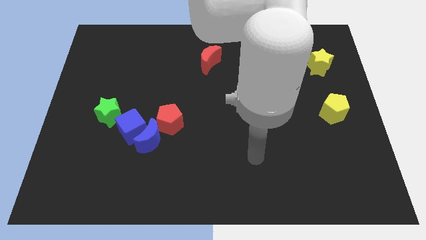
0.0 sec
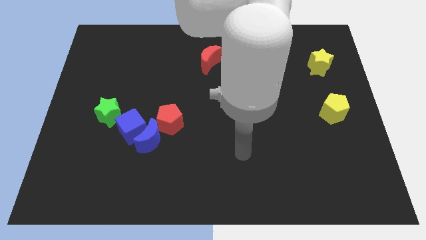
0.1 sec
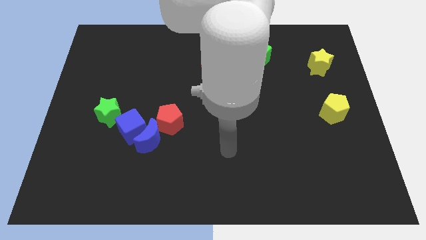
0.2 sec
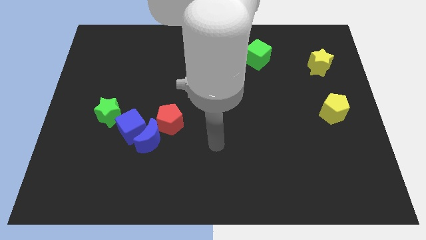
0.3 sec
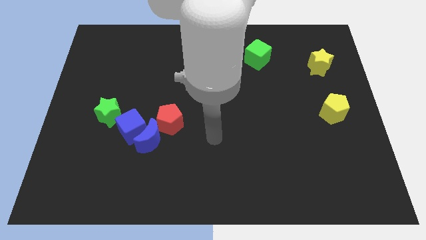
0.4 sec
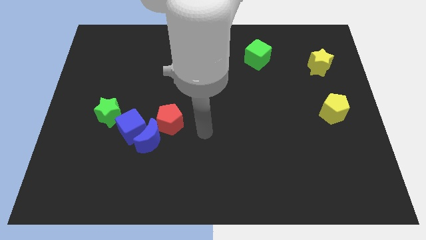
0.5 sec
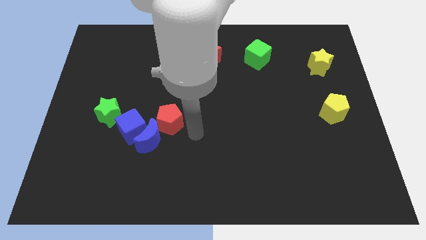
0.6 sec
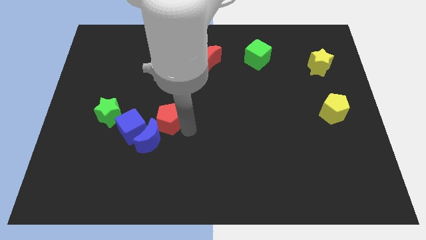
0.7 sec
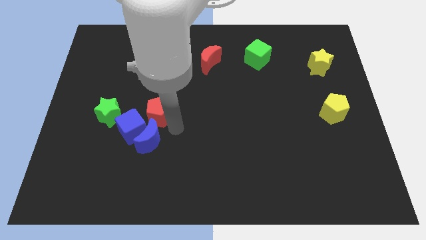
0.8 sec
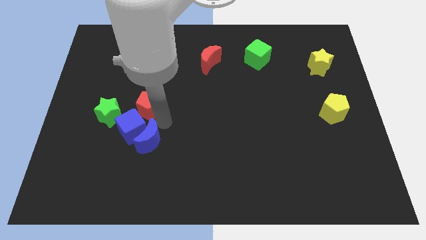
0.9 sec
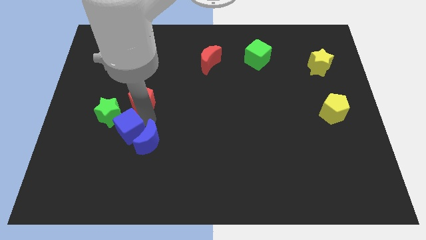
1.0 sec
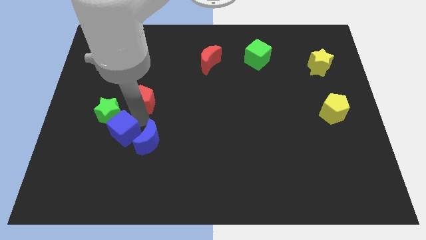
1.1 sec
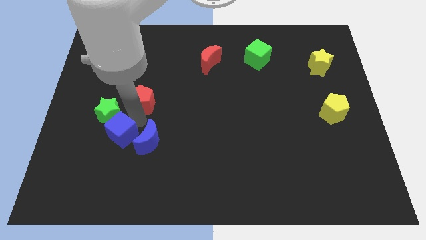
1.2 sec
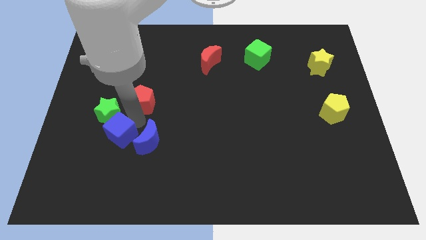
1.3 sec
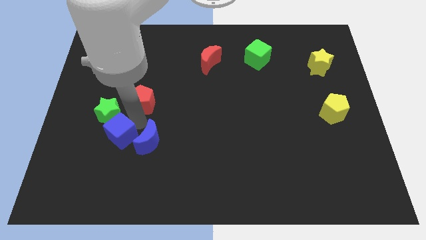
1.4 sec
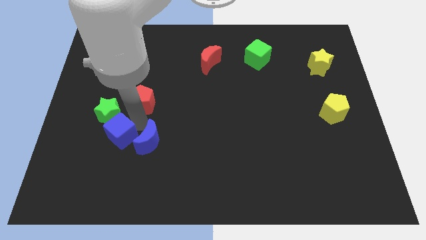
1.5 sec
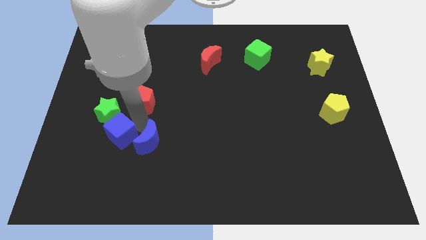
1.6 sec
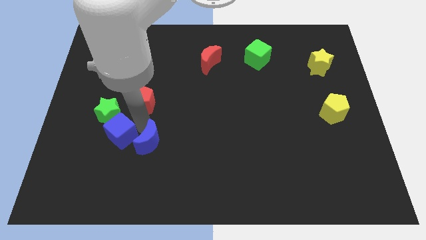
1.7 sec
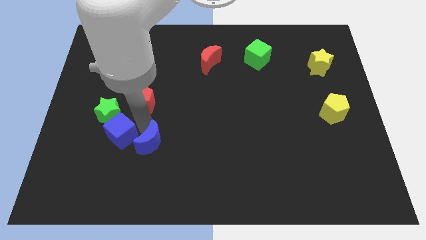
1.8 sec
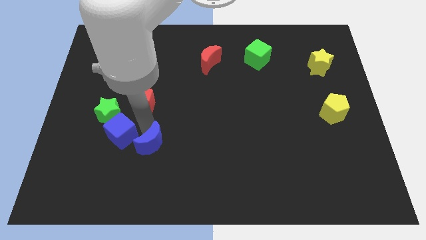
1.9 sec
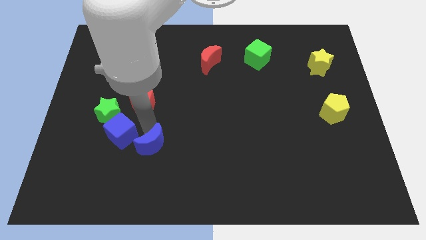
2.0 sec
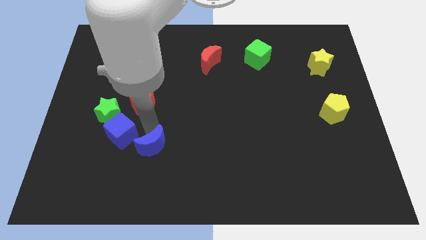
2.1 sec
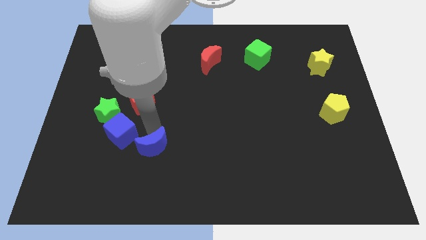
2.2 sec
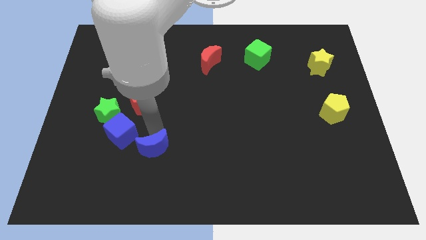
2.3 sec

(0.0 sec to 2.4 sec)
pull the blue moon apart from the blue cube and red pentagon

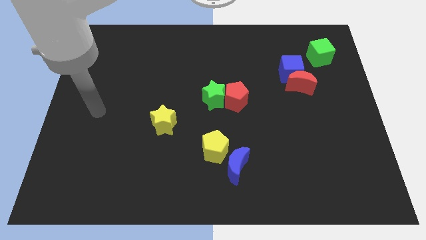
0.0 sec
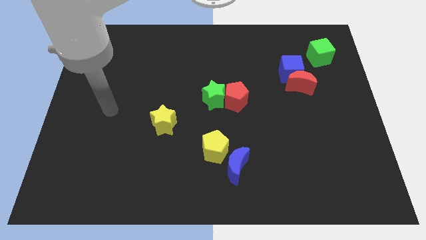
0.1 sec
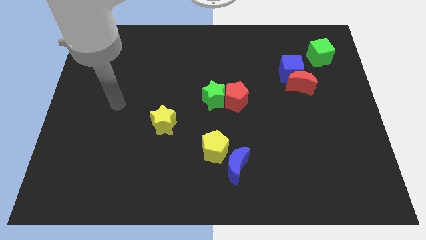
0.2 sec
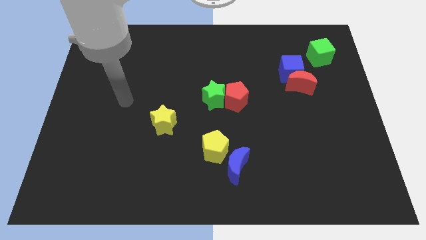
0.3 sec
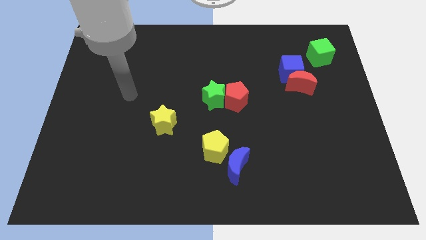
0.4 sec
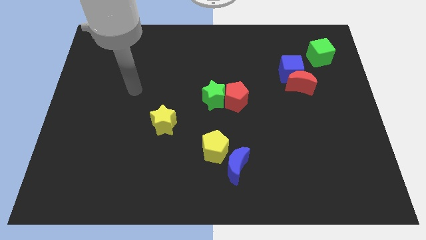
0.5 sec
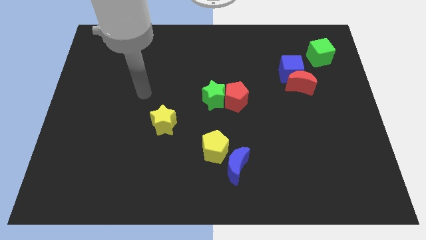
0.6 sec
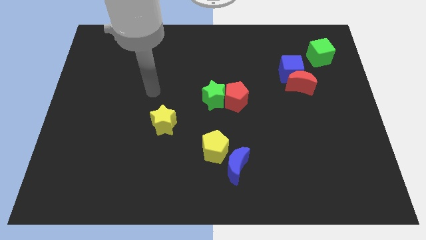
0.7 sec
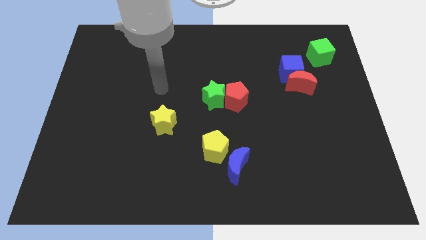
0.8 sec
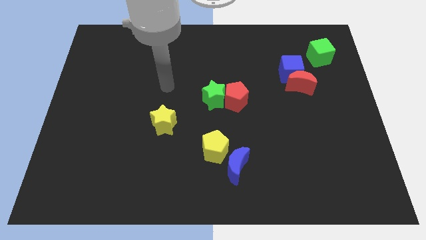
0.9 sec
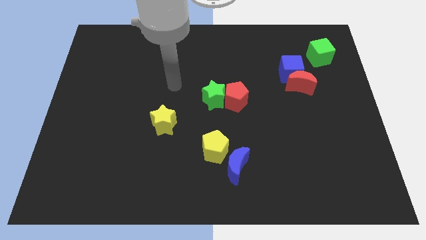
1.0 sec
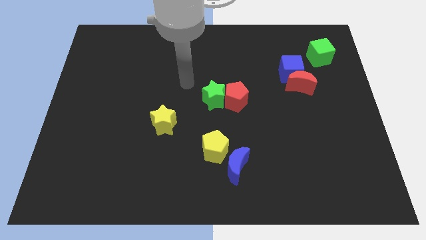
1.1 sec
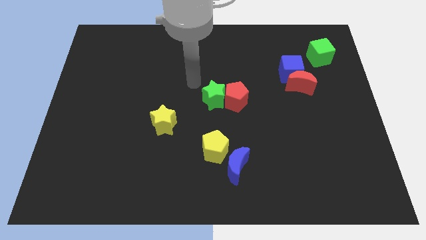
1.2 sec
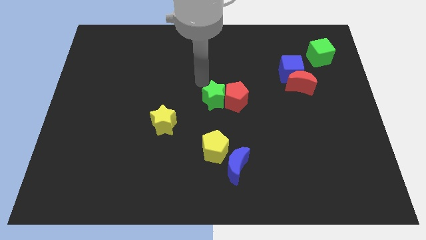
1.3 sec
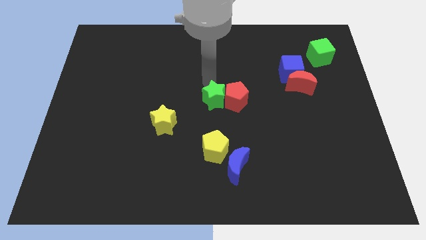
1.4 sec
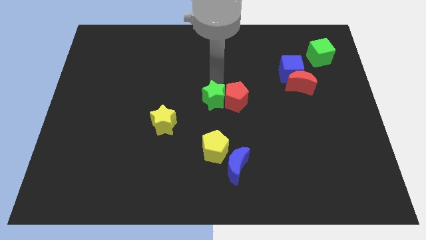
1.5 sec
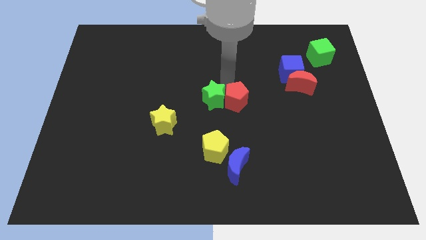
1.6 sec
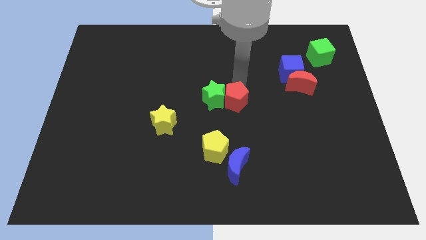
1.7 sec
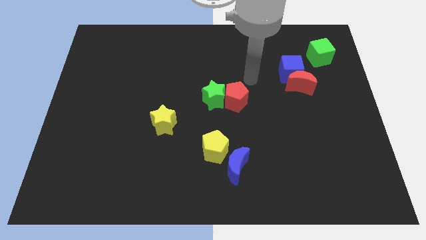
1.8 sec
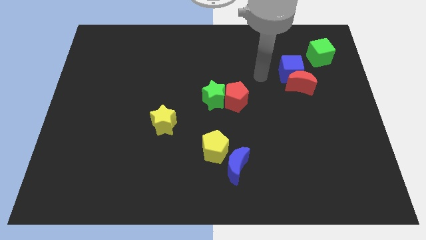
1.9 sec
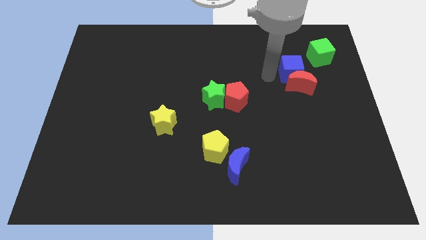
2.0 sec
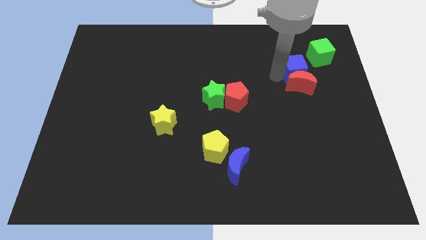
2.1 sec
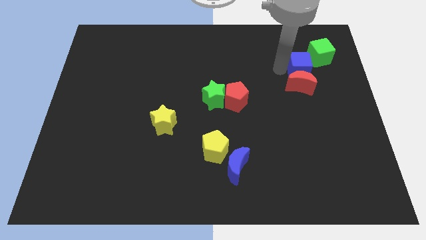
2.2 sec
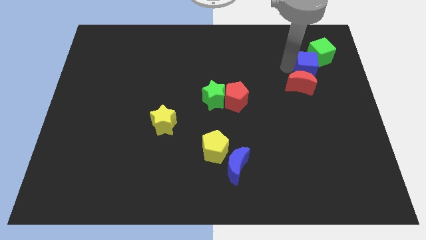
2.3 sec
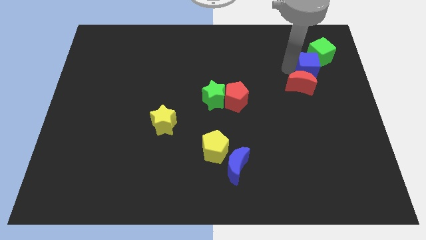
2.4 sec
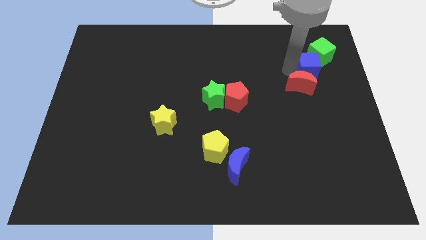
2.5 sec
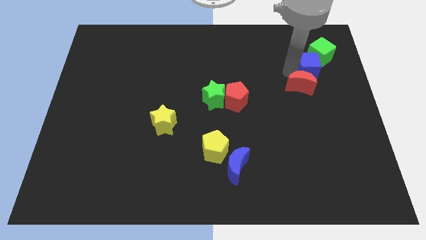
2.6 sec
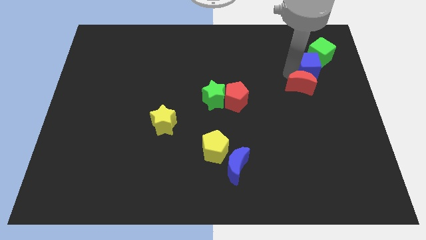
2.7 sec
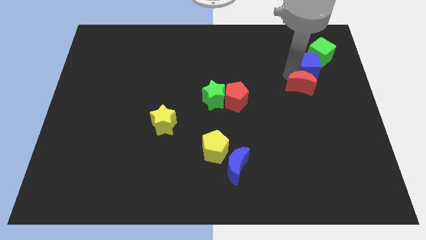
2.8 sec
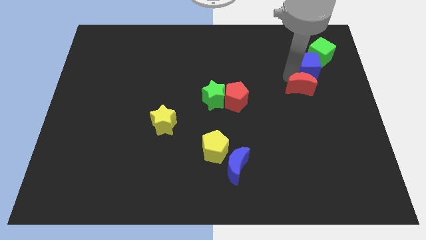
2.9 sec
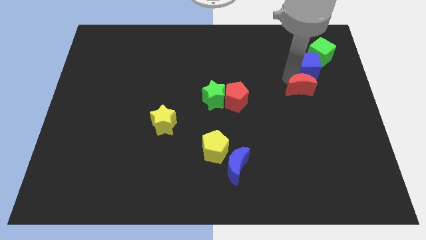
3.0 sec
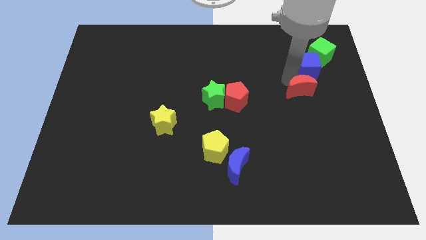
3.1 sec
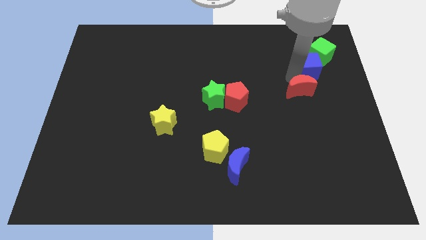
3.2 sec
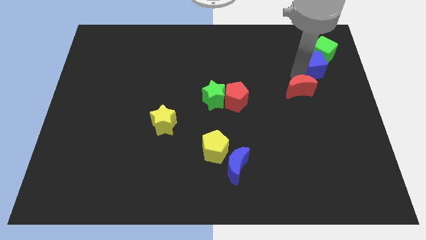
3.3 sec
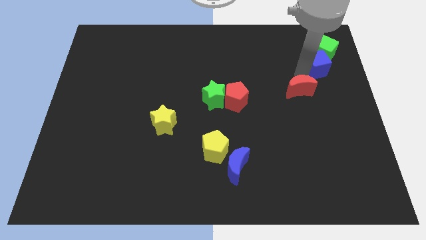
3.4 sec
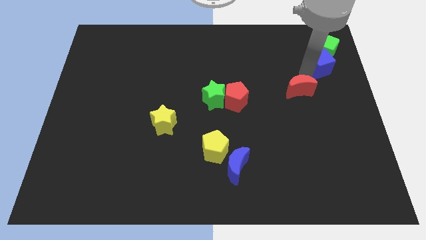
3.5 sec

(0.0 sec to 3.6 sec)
separate the red moon from the blue cube

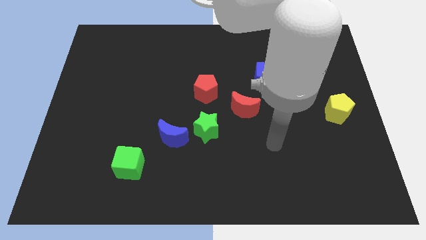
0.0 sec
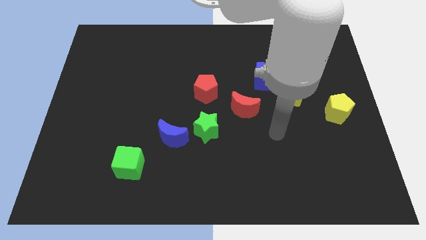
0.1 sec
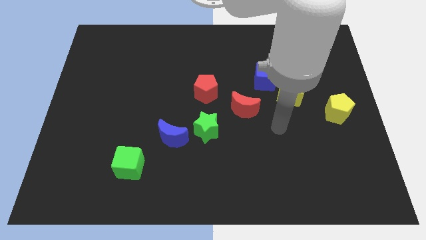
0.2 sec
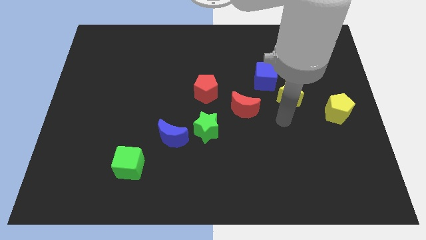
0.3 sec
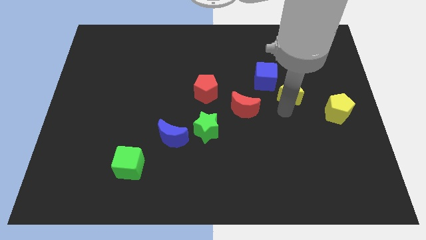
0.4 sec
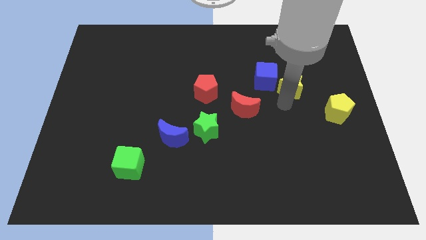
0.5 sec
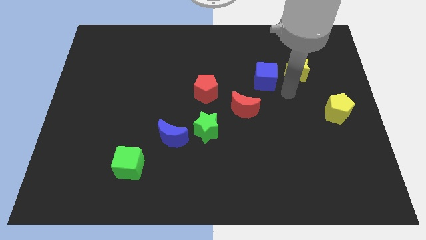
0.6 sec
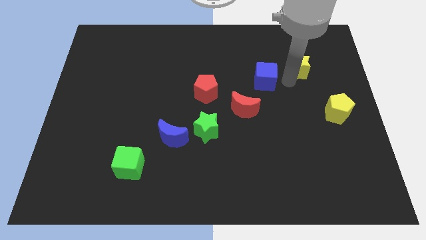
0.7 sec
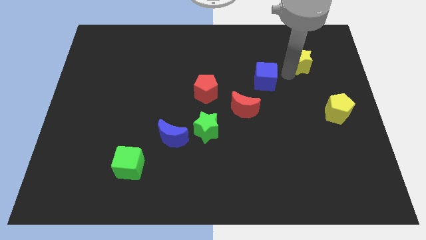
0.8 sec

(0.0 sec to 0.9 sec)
move the blue cube away from the yellow star

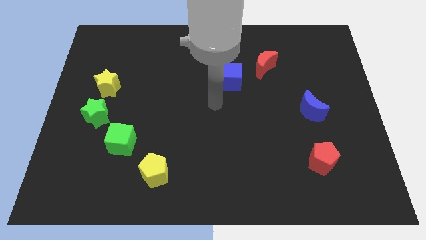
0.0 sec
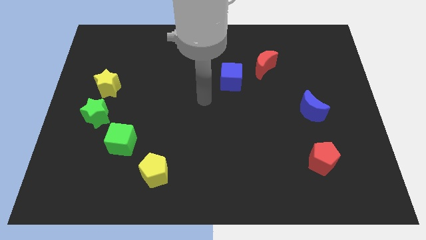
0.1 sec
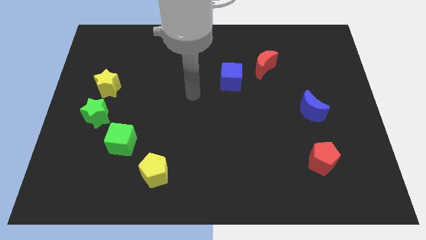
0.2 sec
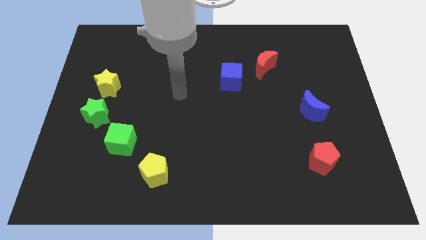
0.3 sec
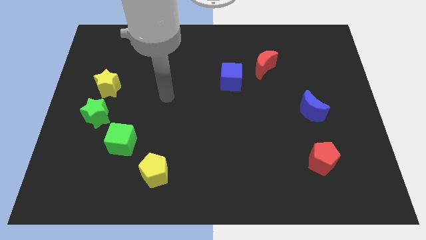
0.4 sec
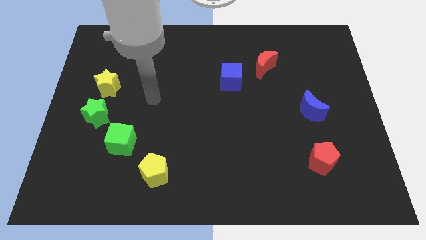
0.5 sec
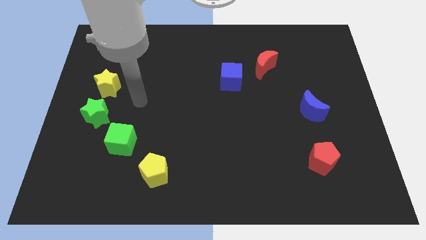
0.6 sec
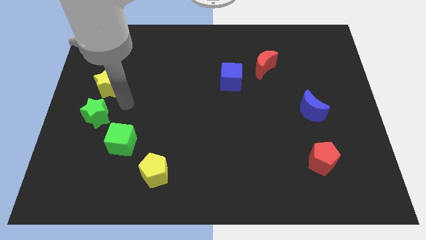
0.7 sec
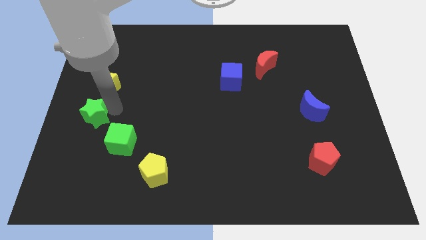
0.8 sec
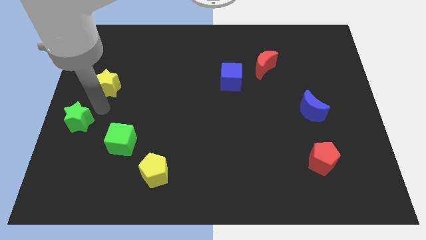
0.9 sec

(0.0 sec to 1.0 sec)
pull the yellow star apart from the green star

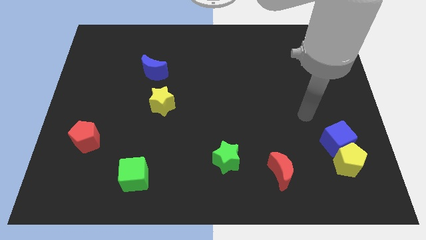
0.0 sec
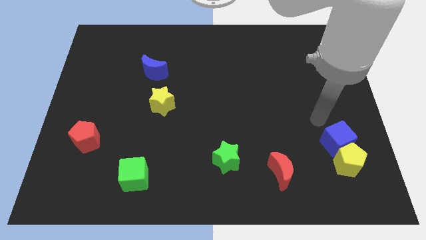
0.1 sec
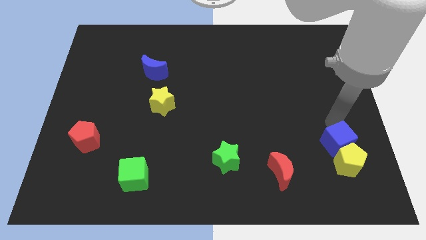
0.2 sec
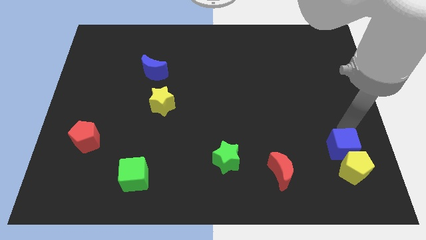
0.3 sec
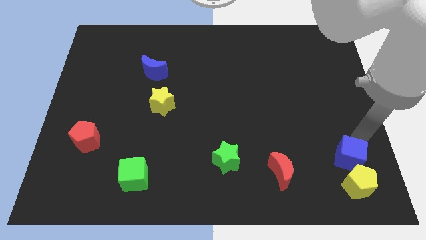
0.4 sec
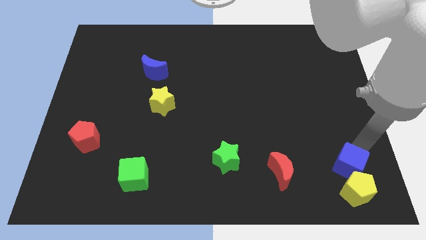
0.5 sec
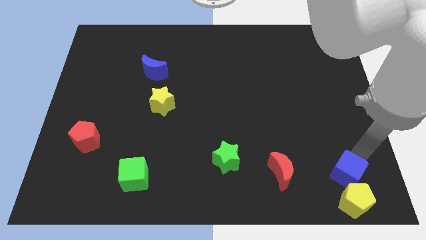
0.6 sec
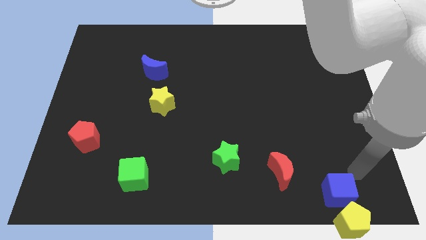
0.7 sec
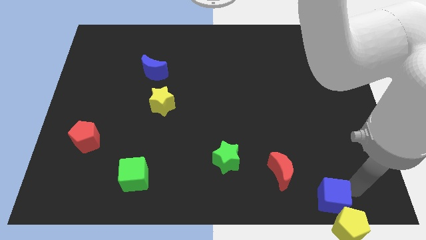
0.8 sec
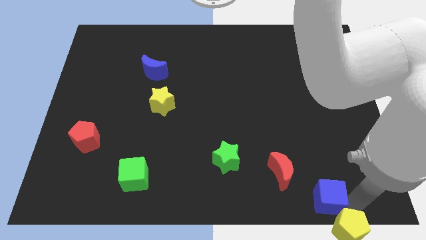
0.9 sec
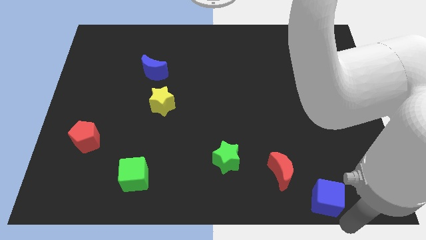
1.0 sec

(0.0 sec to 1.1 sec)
separate the blue cube from the yellow pentagon

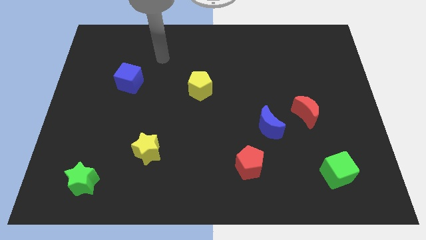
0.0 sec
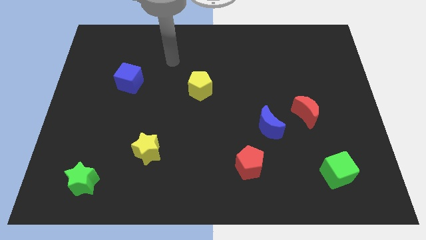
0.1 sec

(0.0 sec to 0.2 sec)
move the red moon away from the blue moon

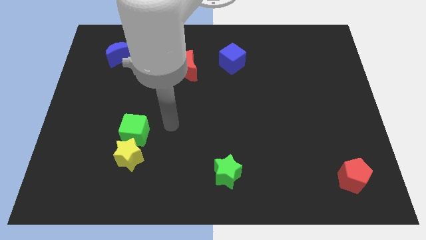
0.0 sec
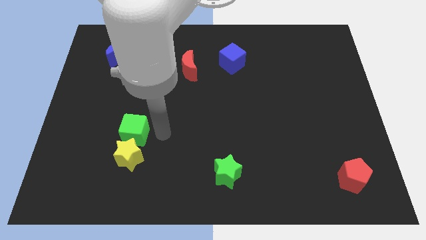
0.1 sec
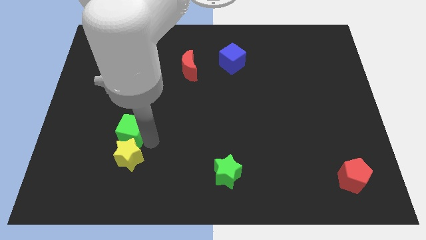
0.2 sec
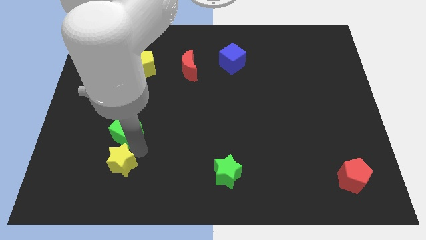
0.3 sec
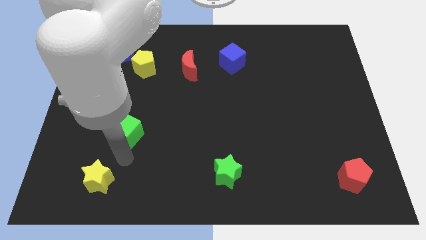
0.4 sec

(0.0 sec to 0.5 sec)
move the green cube away from the yellow star
